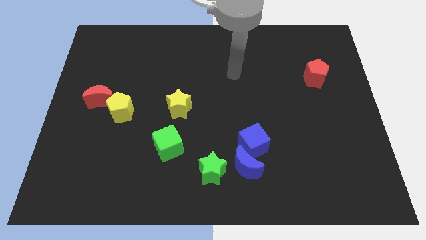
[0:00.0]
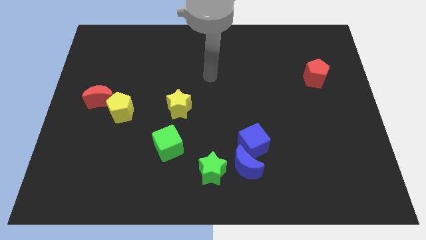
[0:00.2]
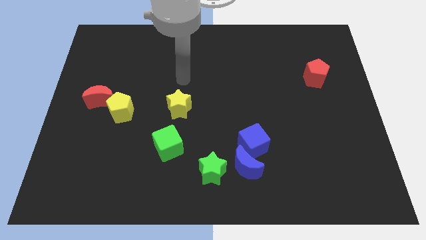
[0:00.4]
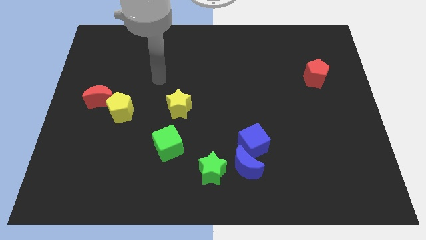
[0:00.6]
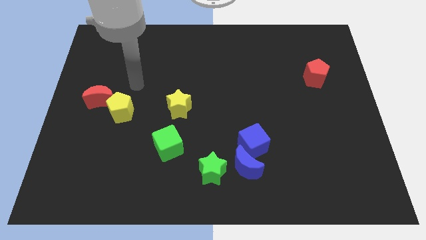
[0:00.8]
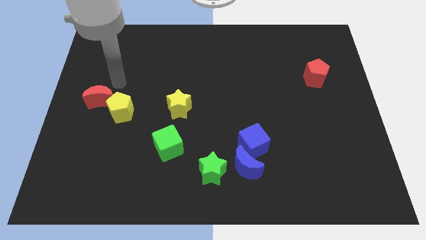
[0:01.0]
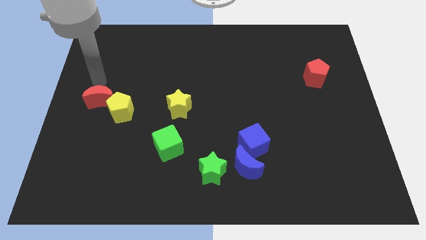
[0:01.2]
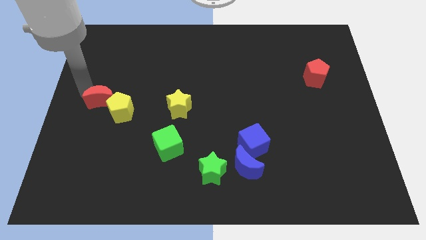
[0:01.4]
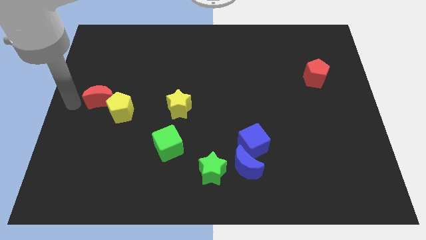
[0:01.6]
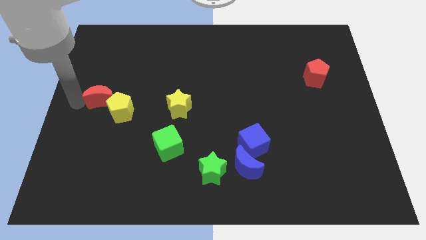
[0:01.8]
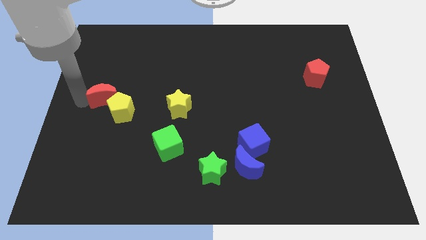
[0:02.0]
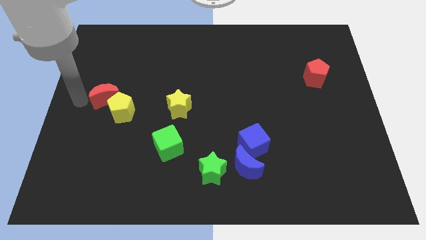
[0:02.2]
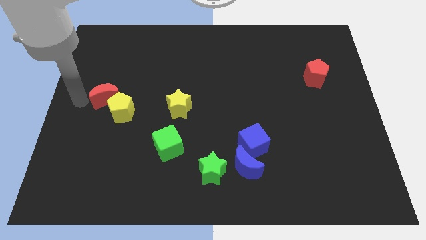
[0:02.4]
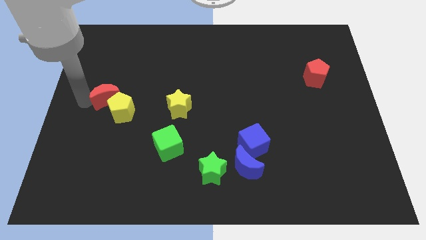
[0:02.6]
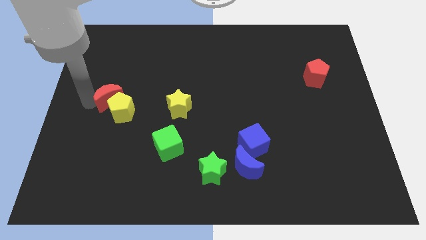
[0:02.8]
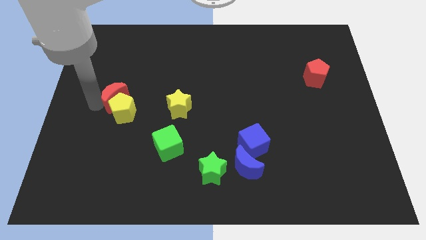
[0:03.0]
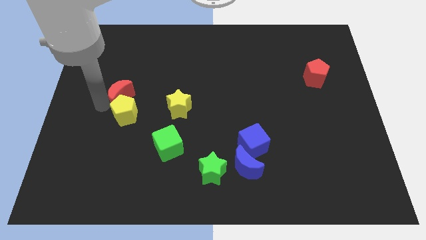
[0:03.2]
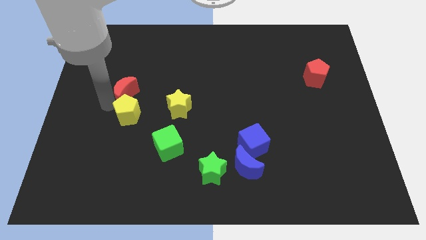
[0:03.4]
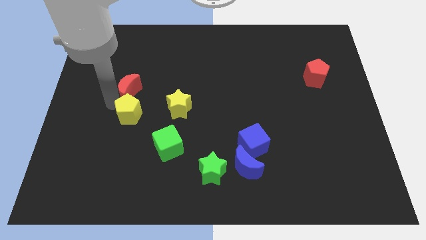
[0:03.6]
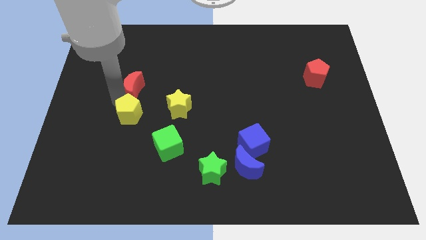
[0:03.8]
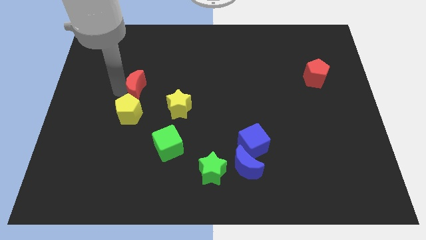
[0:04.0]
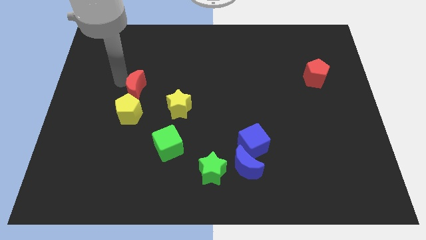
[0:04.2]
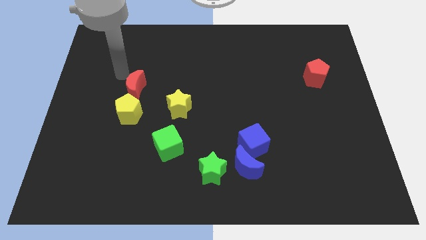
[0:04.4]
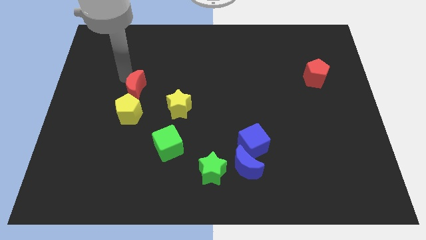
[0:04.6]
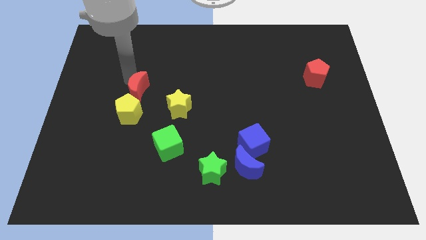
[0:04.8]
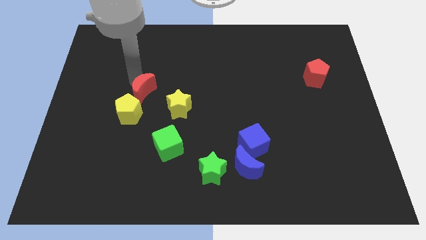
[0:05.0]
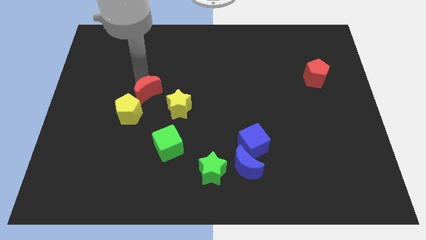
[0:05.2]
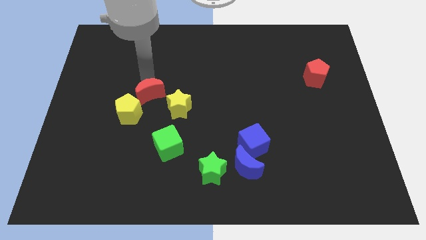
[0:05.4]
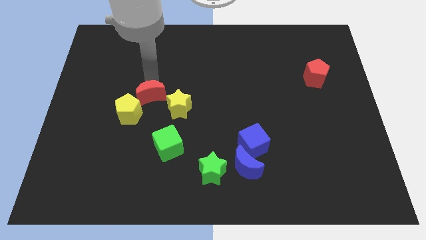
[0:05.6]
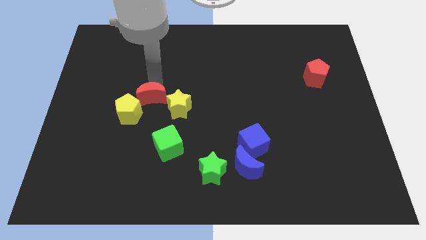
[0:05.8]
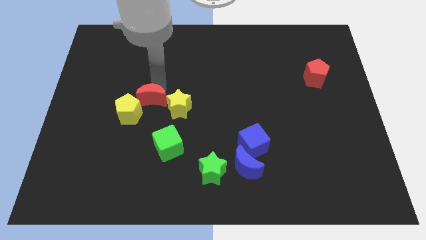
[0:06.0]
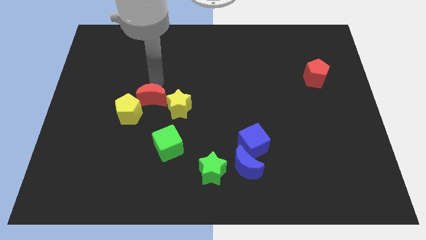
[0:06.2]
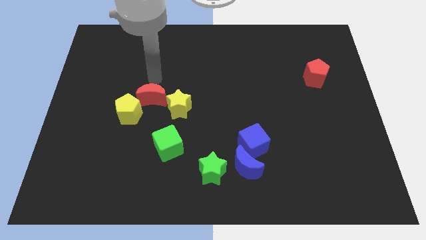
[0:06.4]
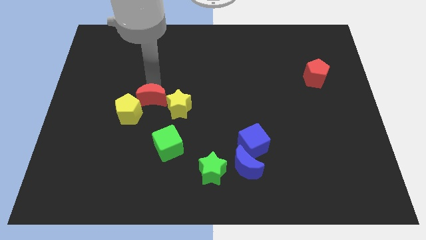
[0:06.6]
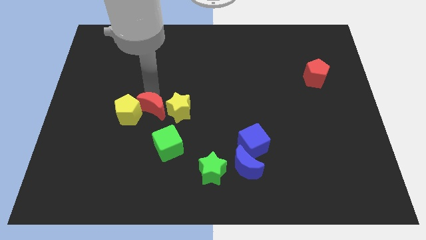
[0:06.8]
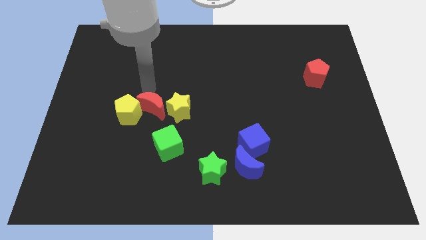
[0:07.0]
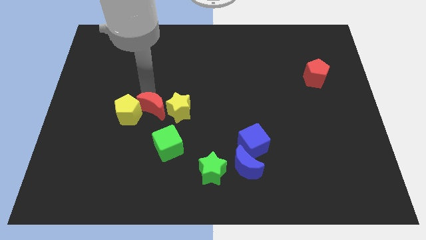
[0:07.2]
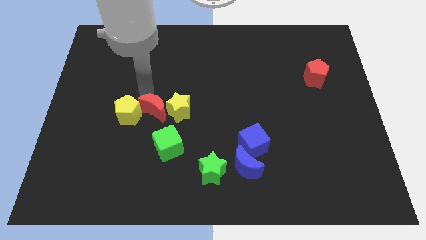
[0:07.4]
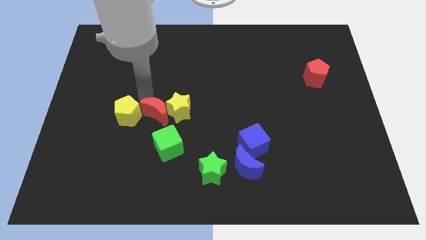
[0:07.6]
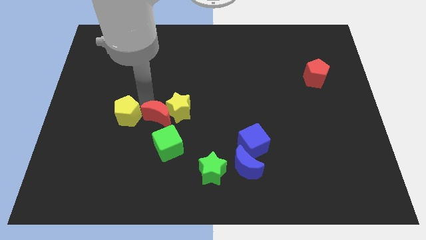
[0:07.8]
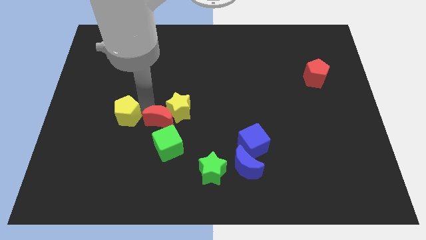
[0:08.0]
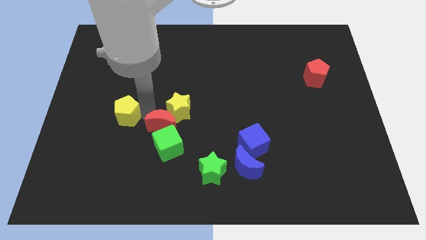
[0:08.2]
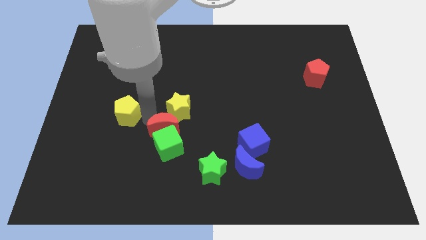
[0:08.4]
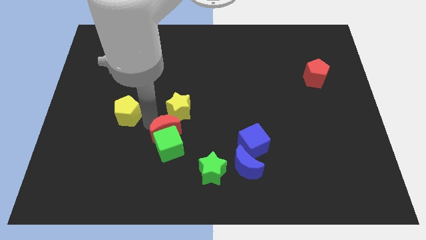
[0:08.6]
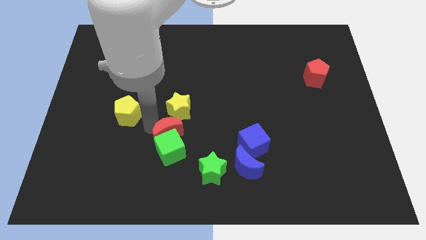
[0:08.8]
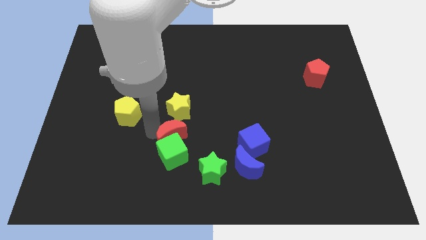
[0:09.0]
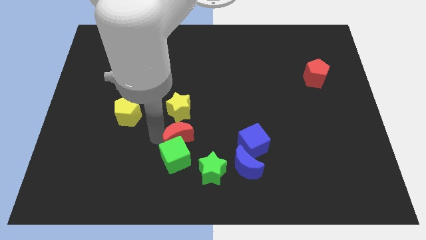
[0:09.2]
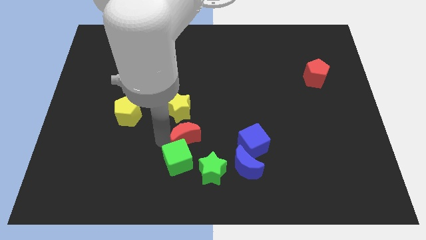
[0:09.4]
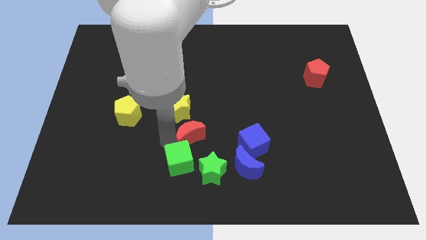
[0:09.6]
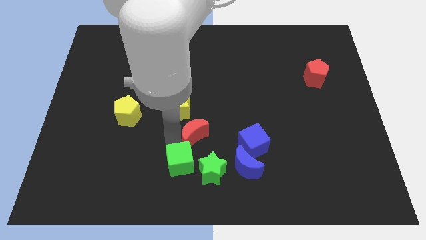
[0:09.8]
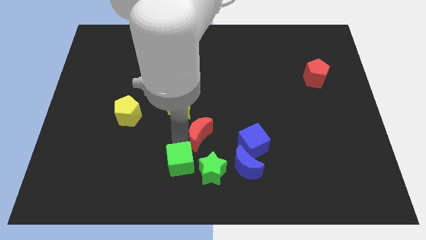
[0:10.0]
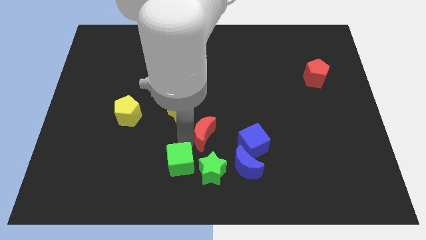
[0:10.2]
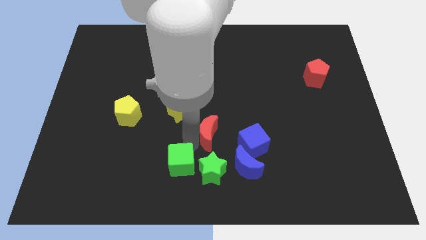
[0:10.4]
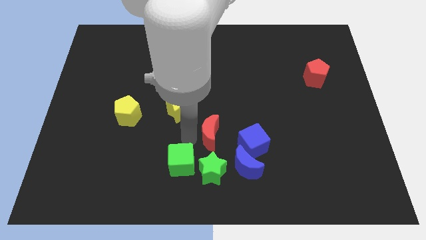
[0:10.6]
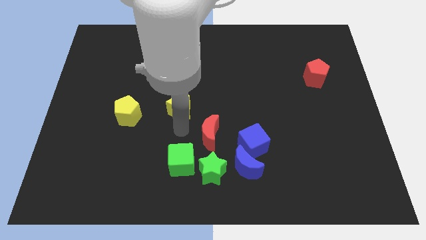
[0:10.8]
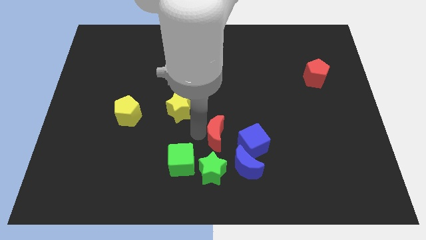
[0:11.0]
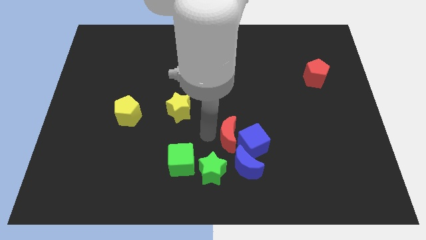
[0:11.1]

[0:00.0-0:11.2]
move the red moon close to the blue cube

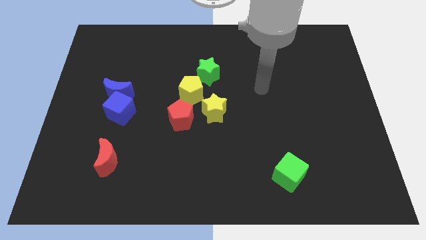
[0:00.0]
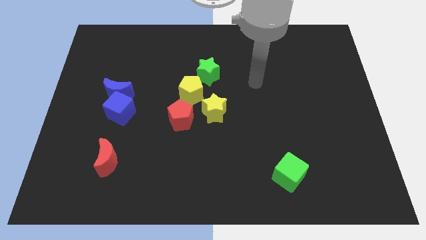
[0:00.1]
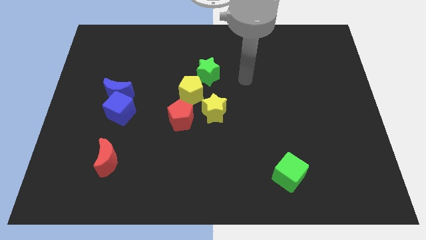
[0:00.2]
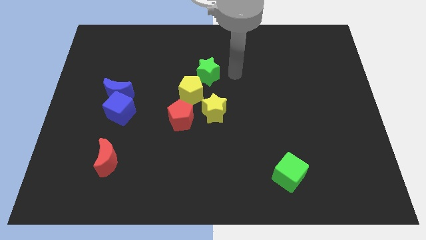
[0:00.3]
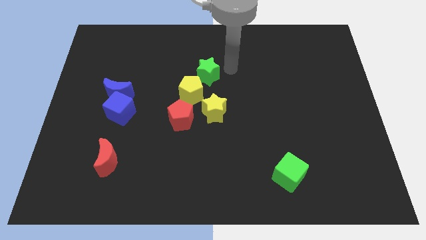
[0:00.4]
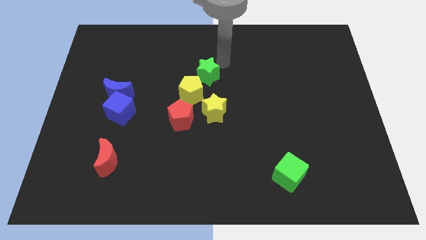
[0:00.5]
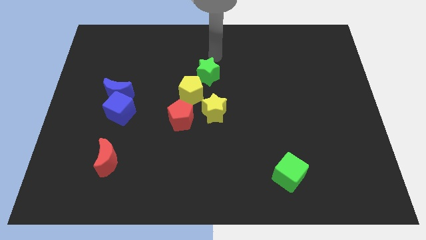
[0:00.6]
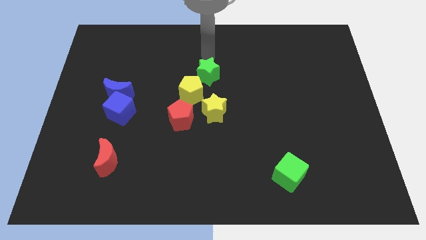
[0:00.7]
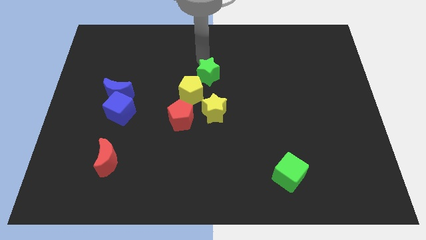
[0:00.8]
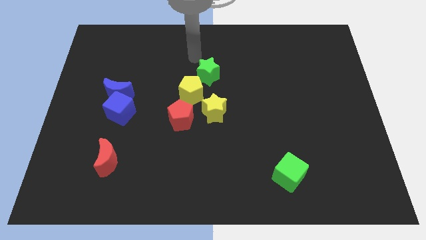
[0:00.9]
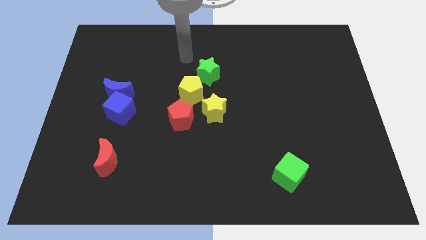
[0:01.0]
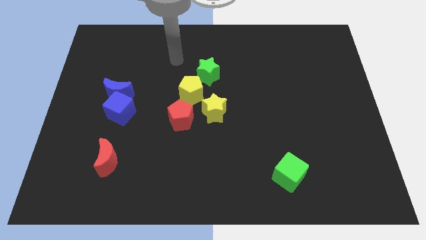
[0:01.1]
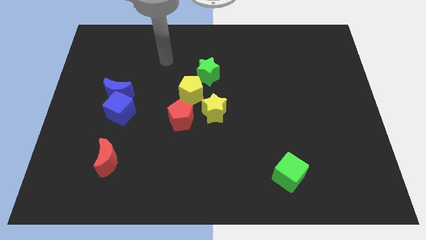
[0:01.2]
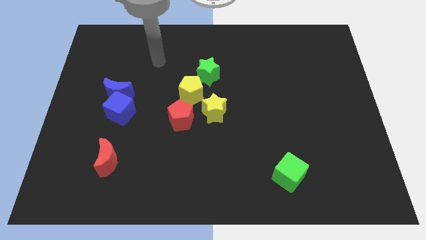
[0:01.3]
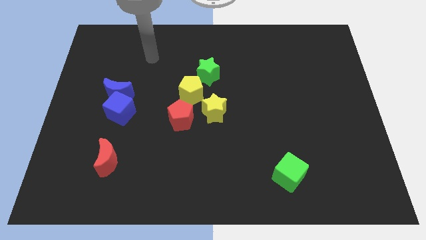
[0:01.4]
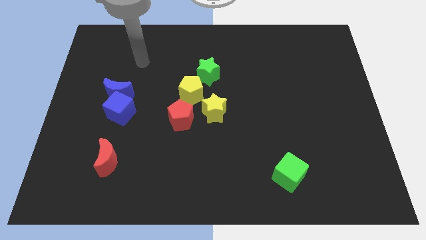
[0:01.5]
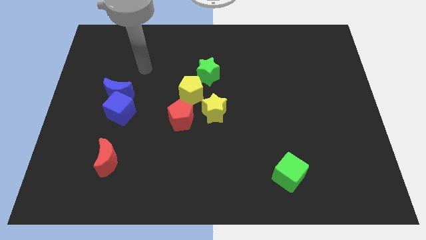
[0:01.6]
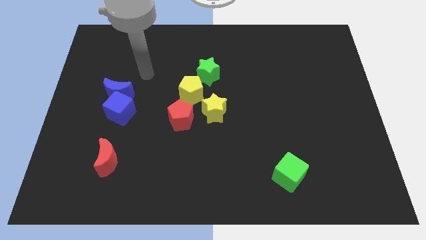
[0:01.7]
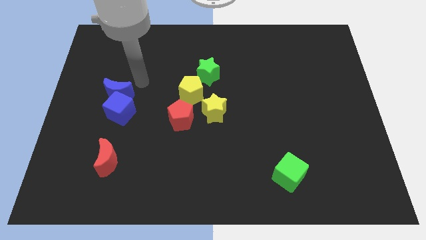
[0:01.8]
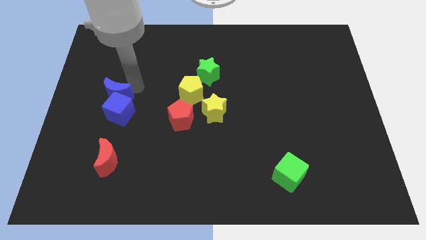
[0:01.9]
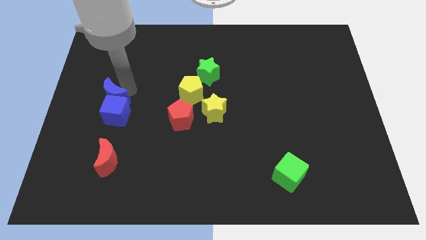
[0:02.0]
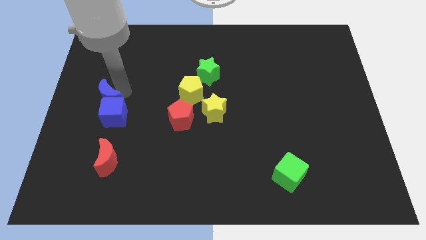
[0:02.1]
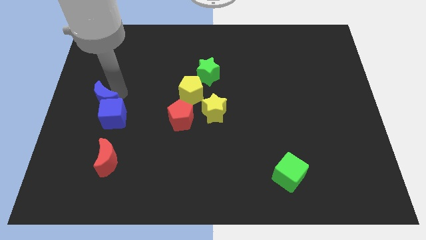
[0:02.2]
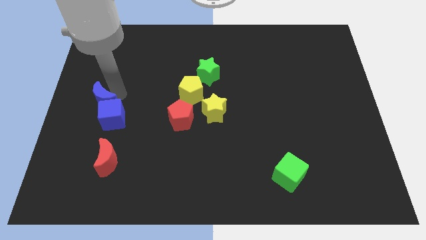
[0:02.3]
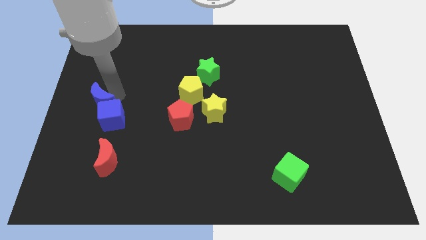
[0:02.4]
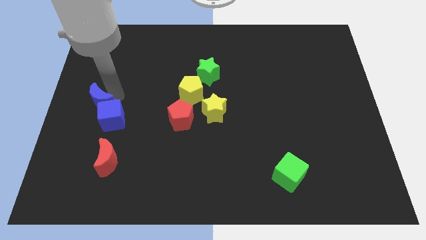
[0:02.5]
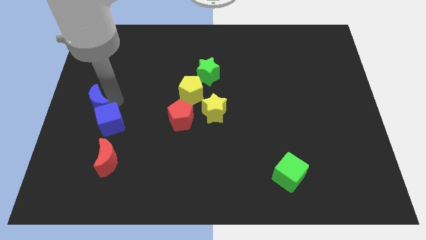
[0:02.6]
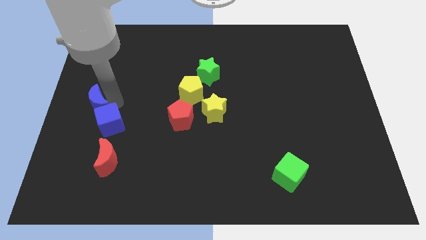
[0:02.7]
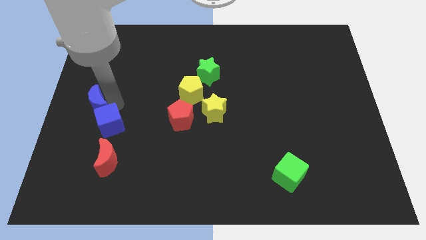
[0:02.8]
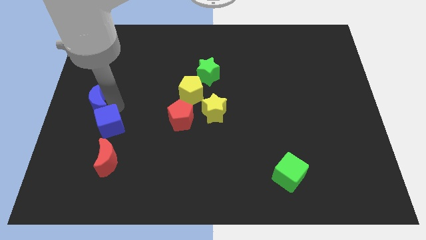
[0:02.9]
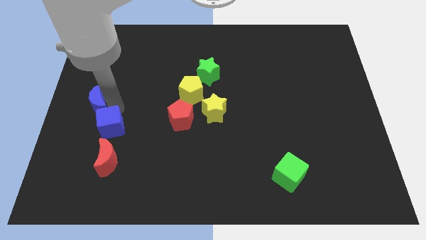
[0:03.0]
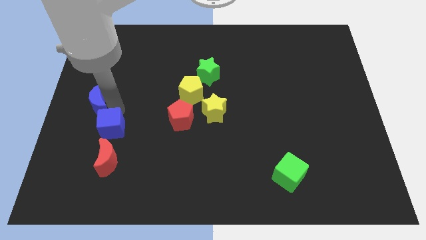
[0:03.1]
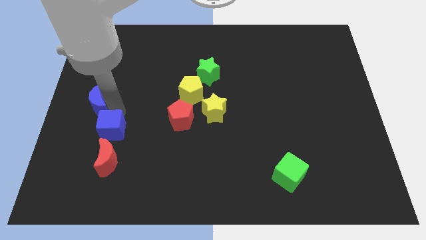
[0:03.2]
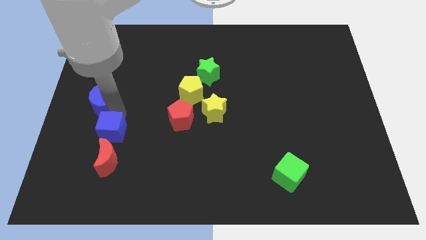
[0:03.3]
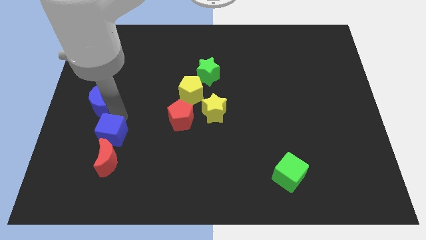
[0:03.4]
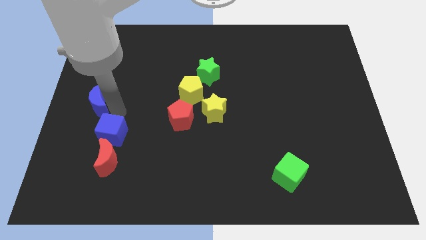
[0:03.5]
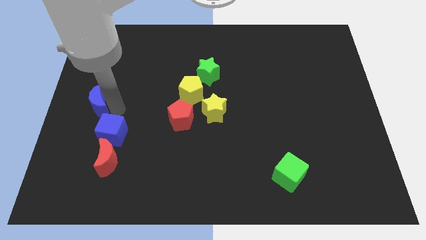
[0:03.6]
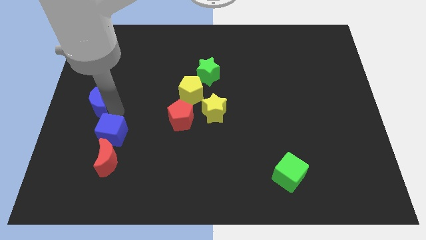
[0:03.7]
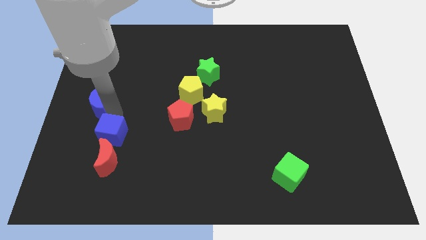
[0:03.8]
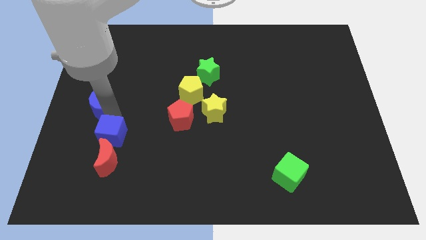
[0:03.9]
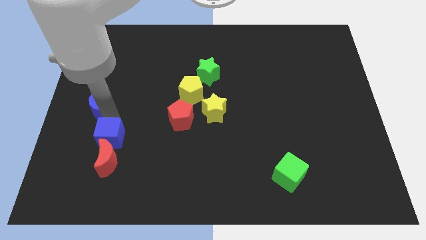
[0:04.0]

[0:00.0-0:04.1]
move the blue cube next to the red moon
